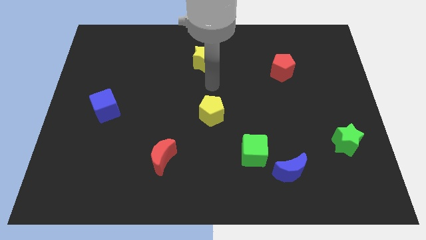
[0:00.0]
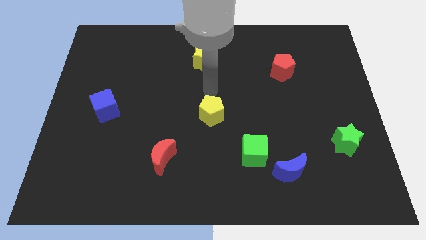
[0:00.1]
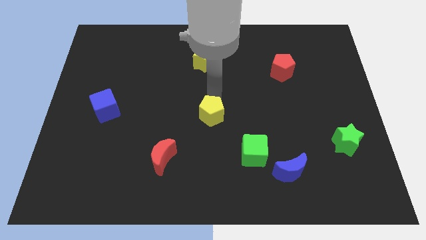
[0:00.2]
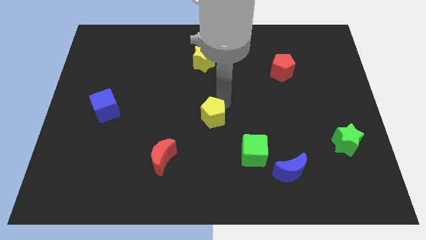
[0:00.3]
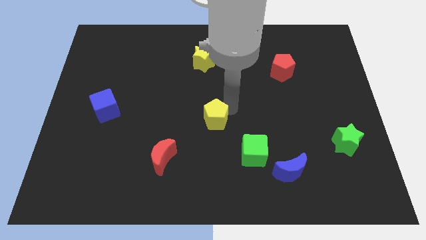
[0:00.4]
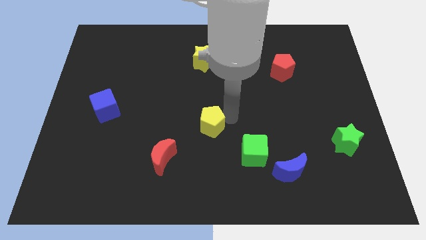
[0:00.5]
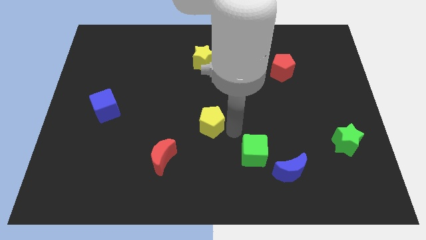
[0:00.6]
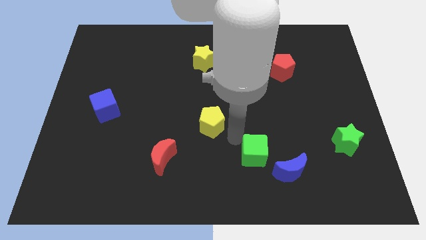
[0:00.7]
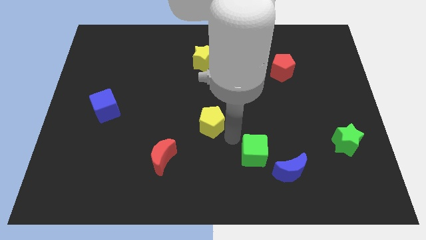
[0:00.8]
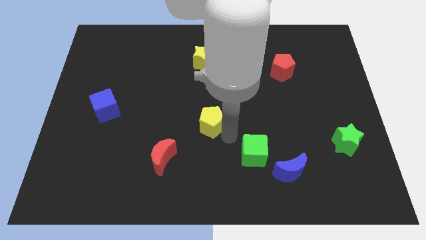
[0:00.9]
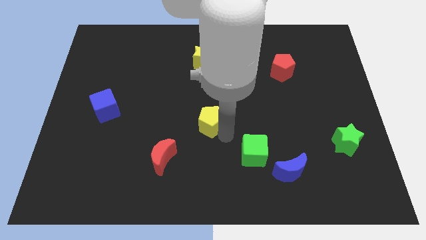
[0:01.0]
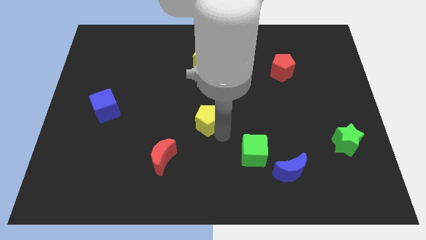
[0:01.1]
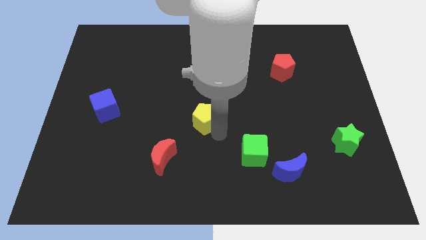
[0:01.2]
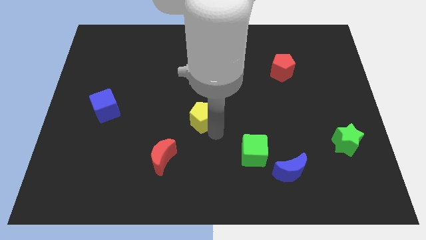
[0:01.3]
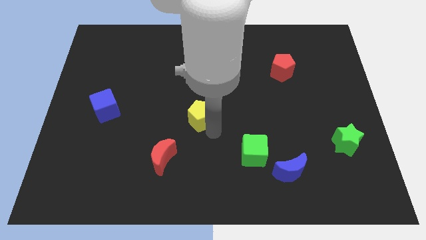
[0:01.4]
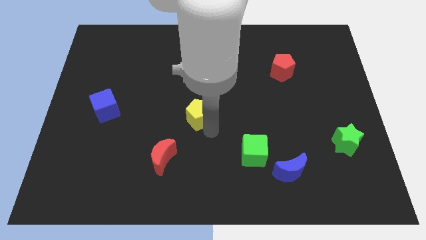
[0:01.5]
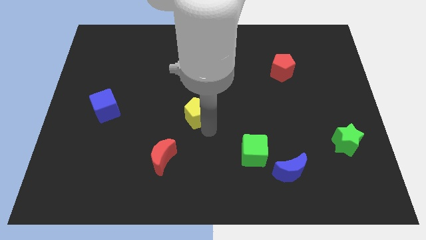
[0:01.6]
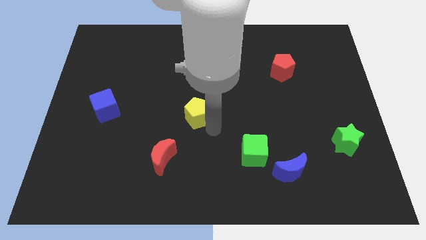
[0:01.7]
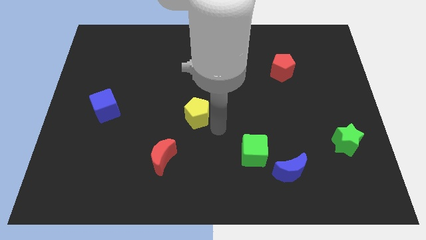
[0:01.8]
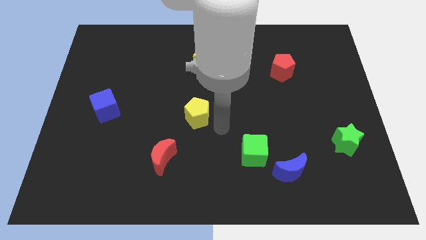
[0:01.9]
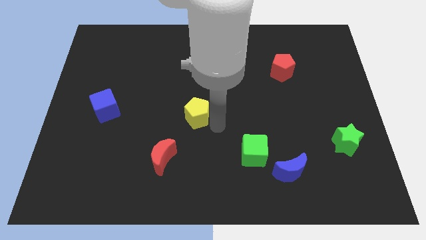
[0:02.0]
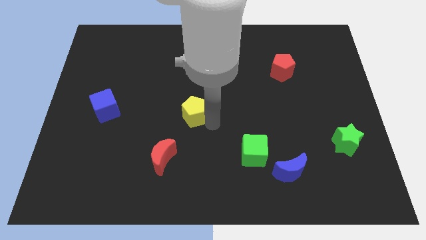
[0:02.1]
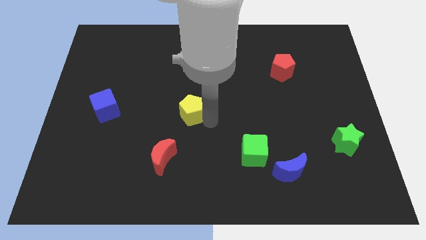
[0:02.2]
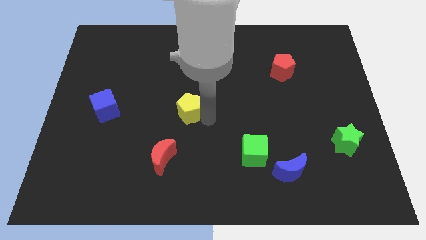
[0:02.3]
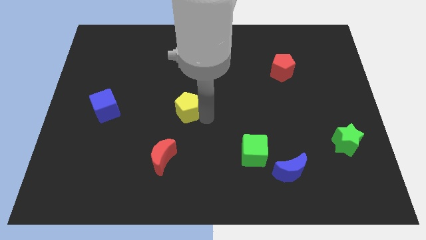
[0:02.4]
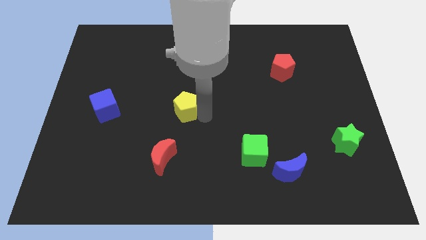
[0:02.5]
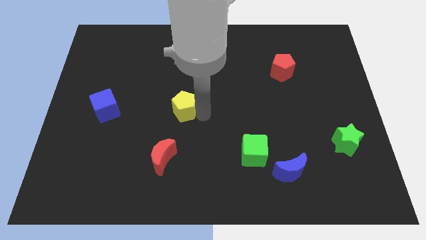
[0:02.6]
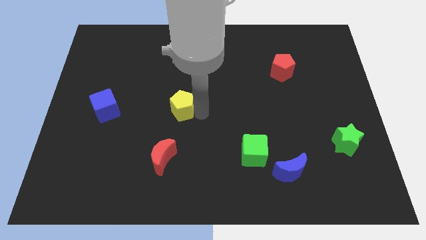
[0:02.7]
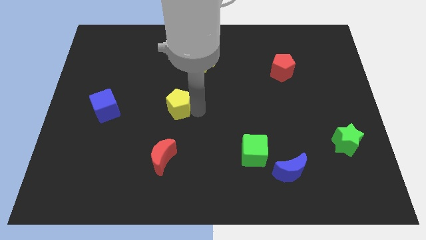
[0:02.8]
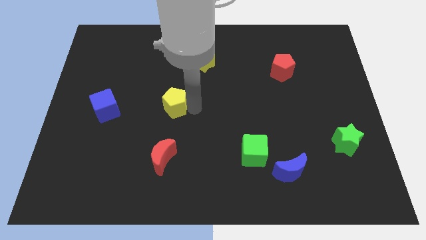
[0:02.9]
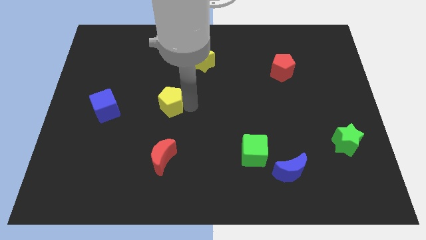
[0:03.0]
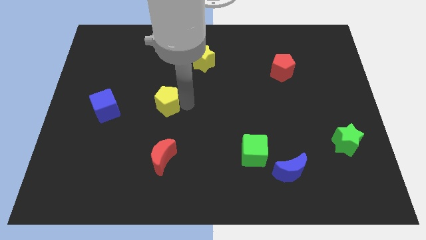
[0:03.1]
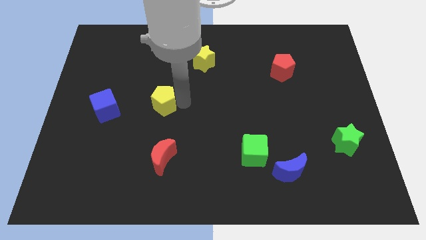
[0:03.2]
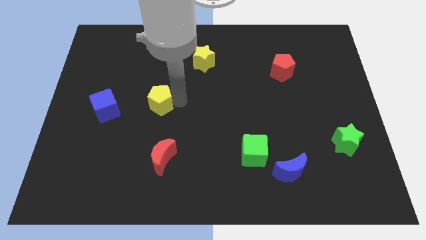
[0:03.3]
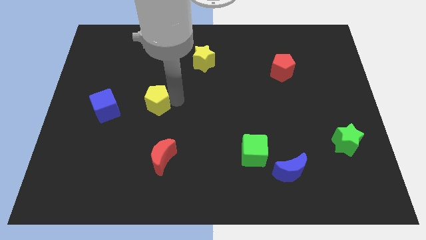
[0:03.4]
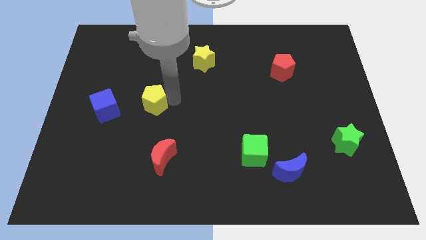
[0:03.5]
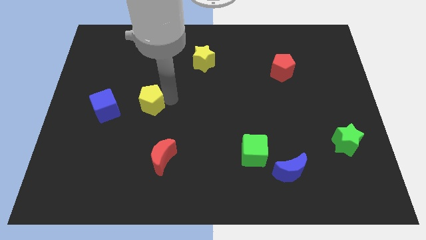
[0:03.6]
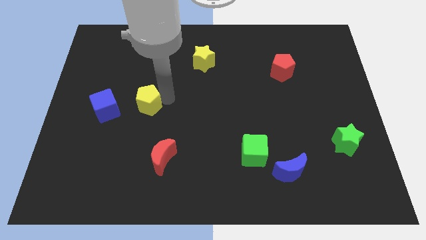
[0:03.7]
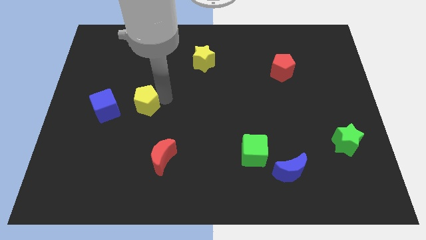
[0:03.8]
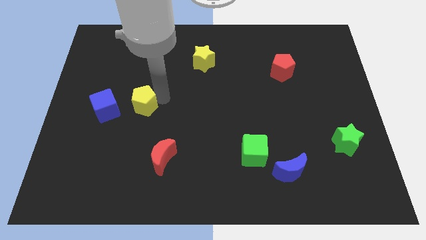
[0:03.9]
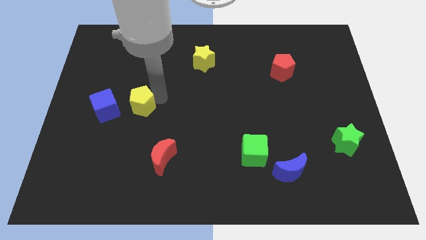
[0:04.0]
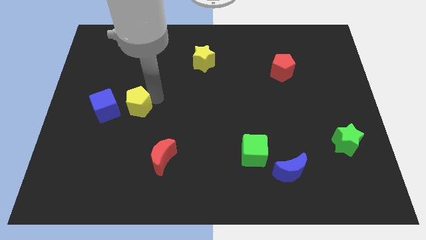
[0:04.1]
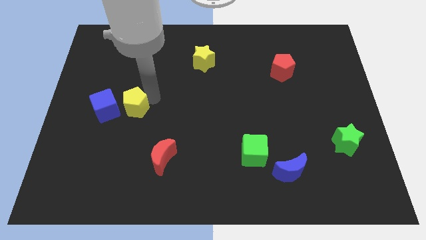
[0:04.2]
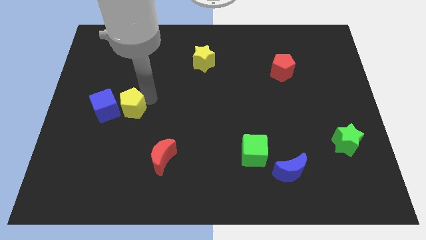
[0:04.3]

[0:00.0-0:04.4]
put the yellow pentagon close to the blue cube

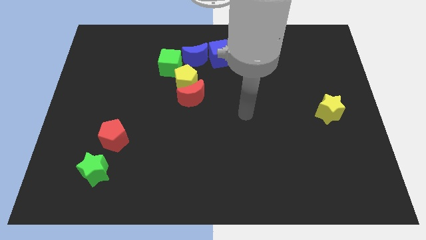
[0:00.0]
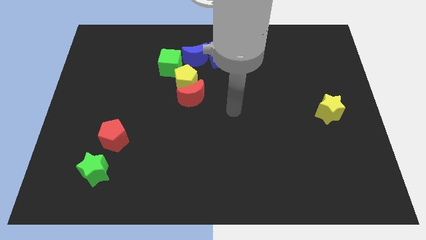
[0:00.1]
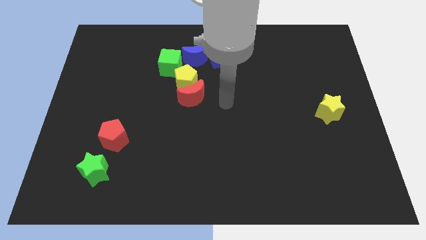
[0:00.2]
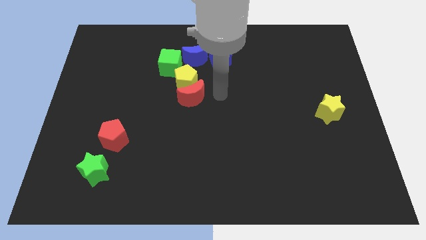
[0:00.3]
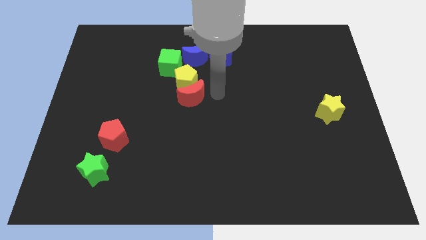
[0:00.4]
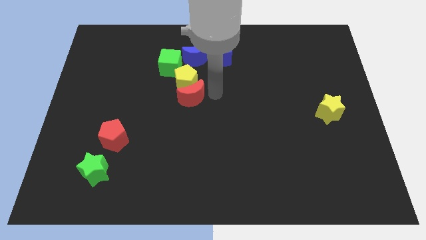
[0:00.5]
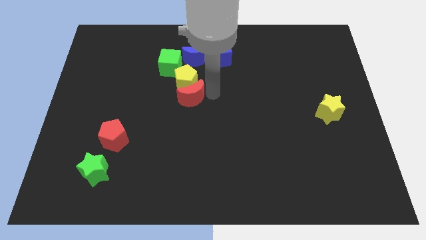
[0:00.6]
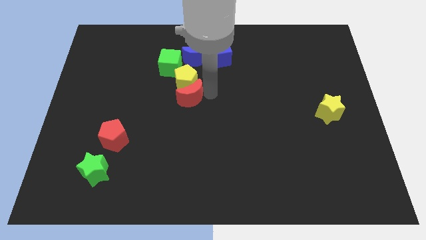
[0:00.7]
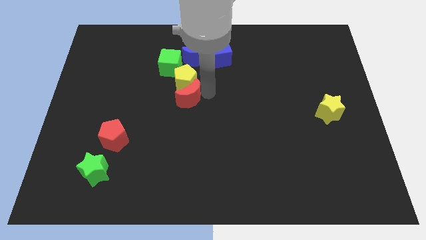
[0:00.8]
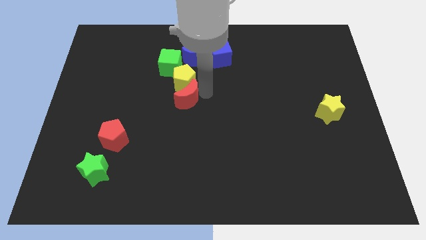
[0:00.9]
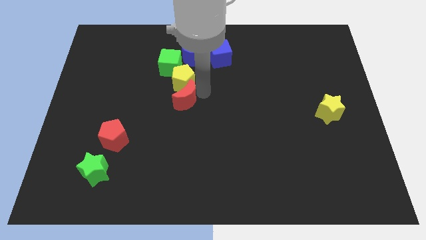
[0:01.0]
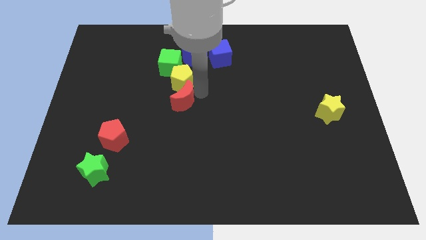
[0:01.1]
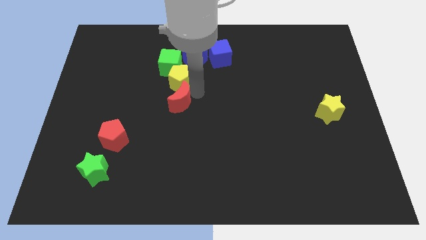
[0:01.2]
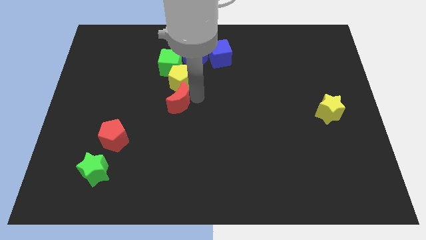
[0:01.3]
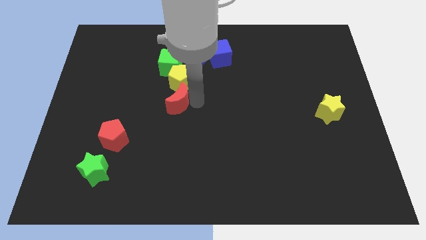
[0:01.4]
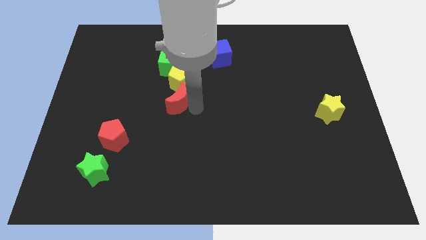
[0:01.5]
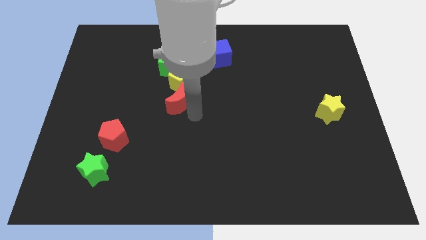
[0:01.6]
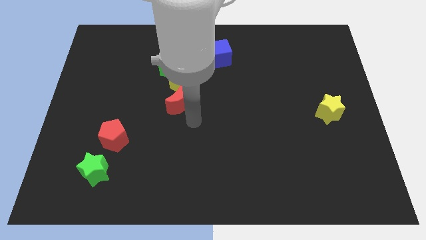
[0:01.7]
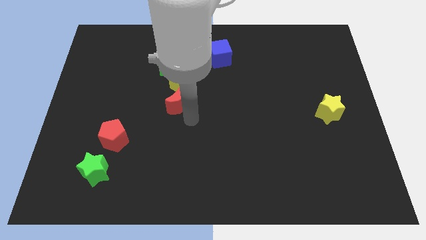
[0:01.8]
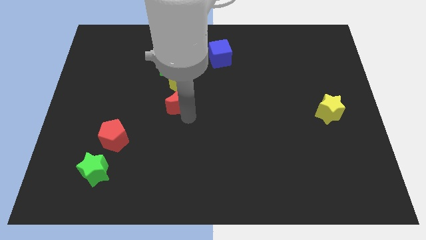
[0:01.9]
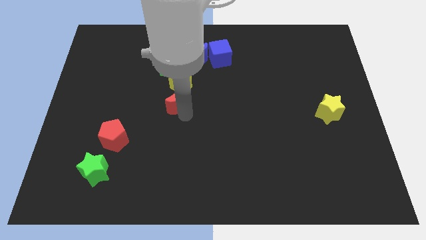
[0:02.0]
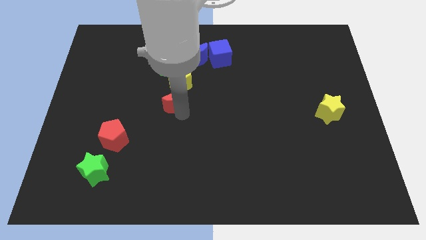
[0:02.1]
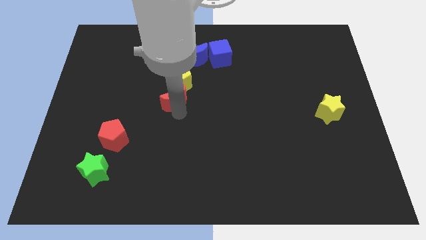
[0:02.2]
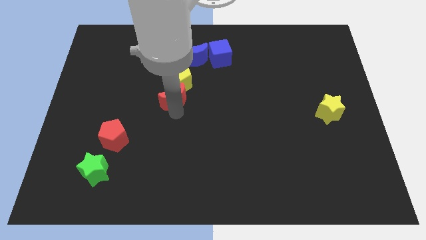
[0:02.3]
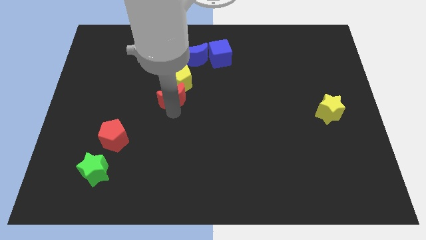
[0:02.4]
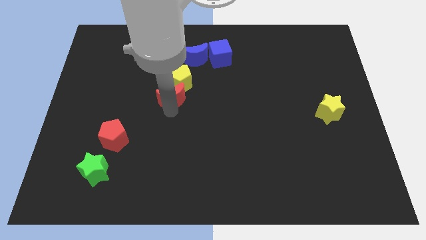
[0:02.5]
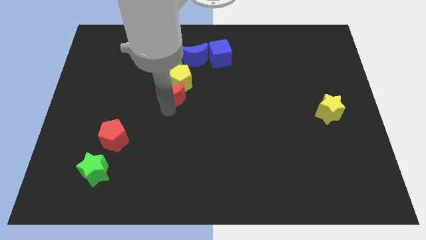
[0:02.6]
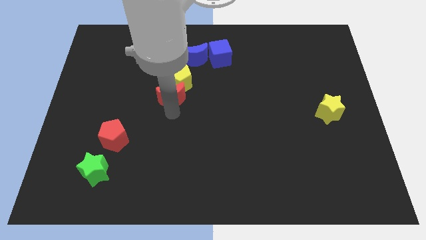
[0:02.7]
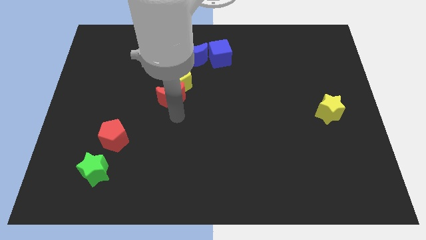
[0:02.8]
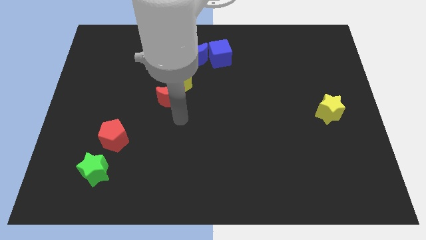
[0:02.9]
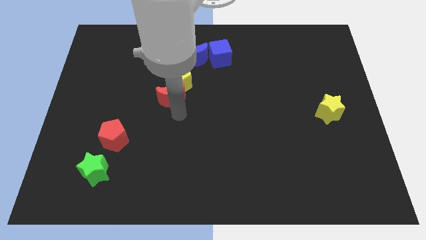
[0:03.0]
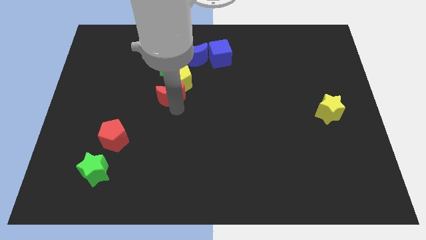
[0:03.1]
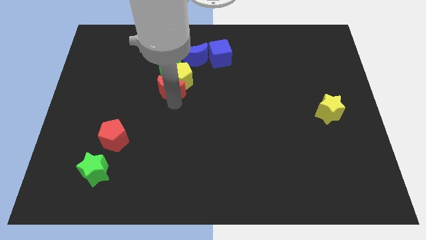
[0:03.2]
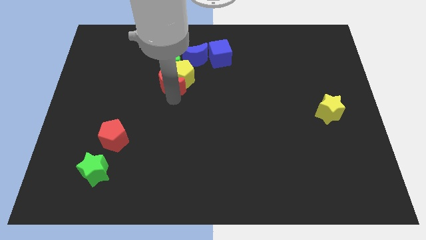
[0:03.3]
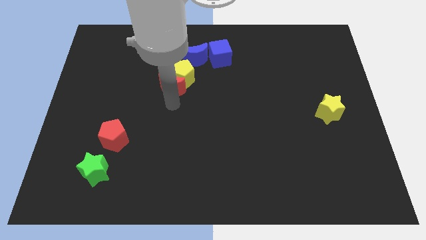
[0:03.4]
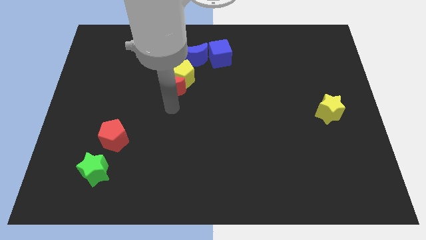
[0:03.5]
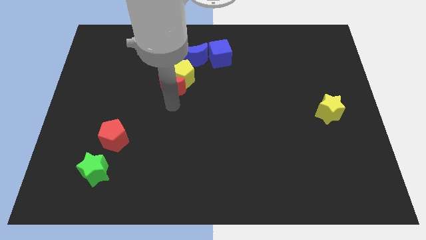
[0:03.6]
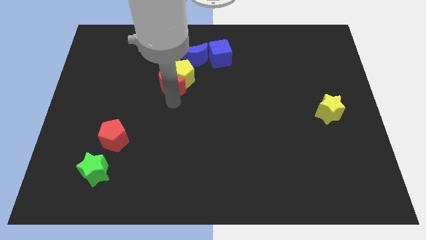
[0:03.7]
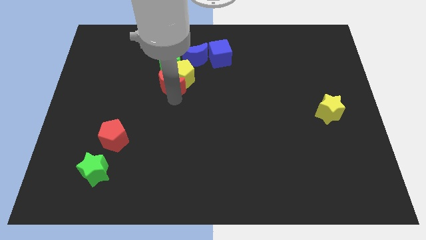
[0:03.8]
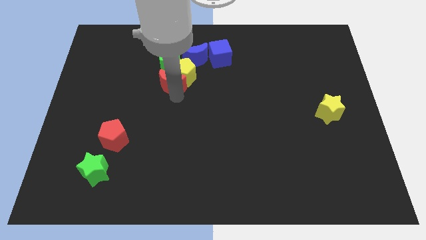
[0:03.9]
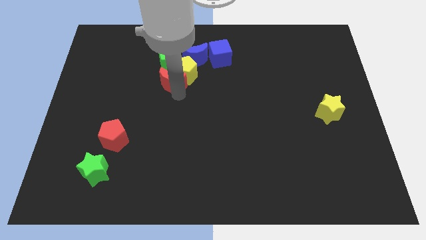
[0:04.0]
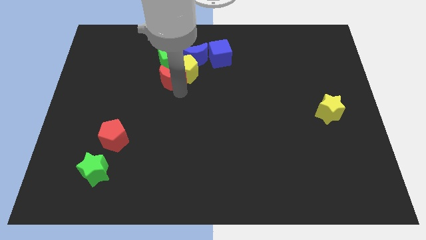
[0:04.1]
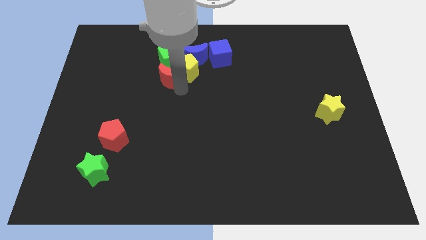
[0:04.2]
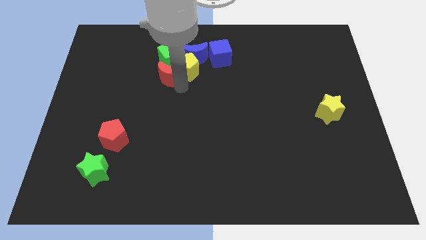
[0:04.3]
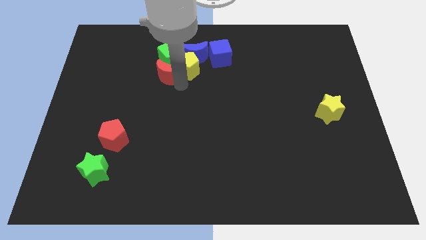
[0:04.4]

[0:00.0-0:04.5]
move the red moon close to the green cube
